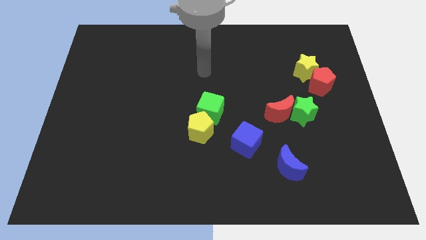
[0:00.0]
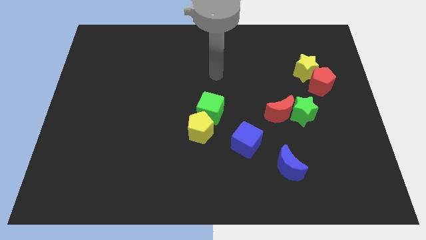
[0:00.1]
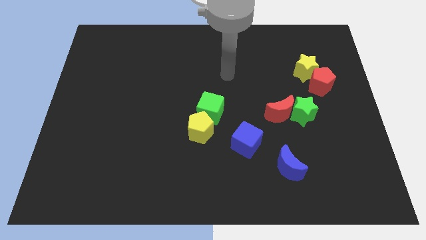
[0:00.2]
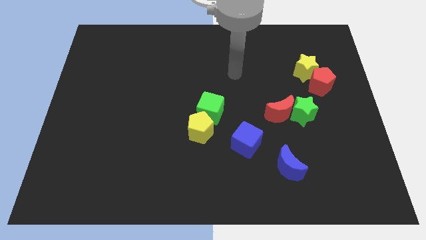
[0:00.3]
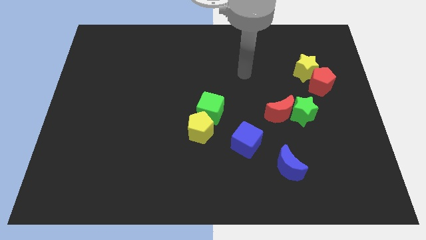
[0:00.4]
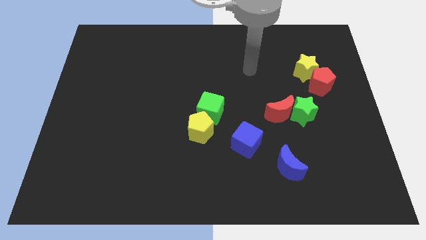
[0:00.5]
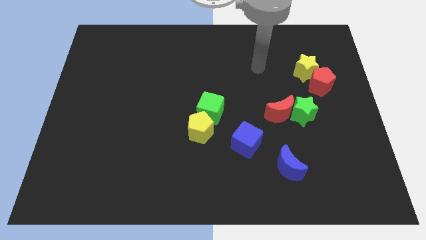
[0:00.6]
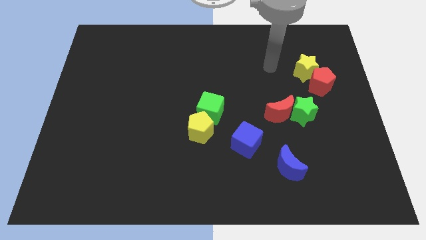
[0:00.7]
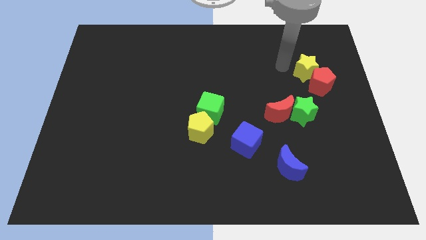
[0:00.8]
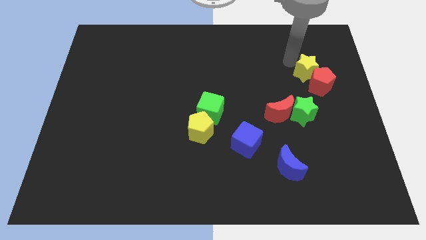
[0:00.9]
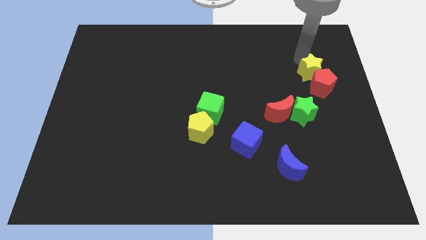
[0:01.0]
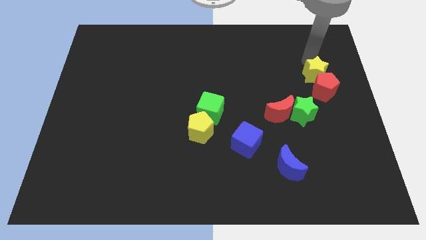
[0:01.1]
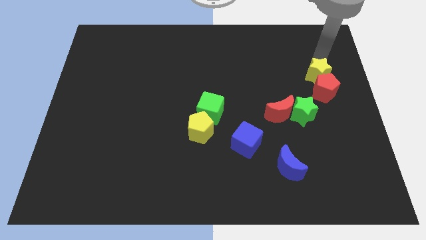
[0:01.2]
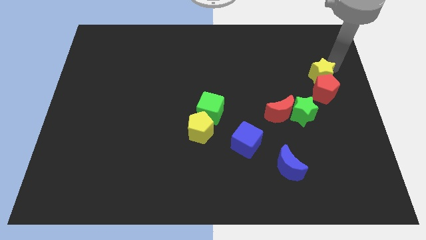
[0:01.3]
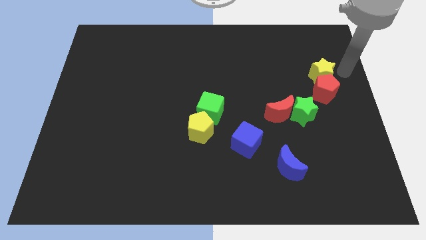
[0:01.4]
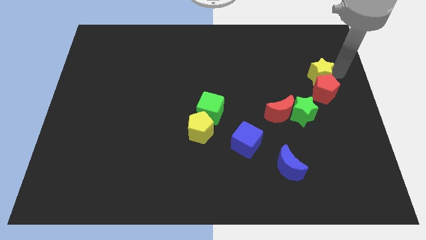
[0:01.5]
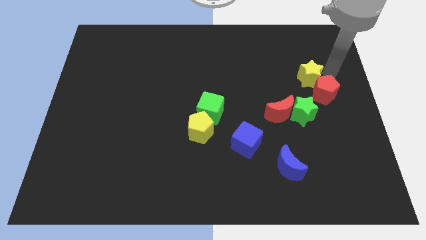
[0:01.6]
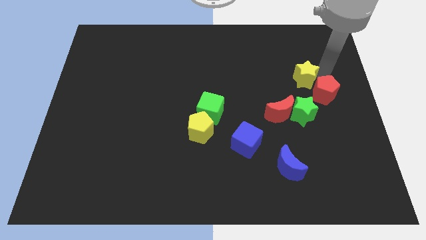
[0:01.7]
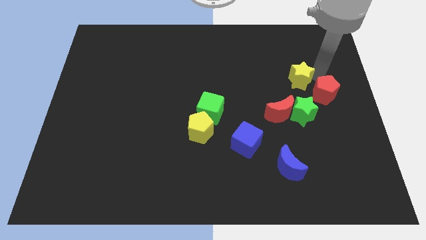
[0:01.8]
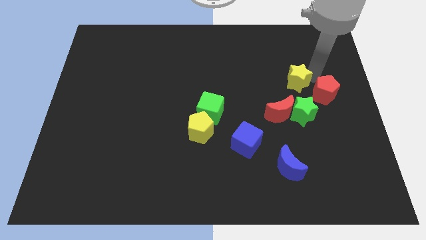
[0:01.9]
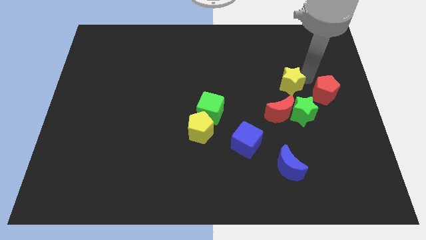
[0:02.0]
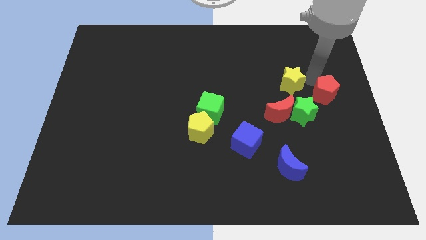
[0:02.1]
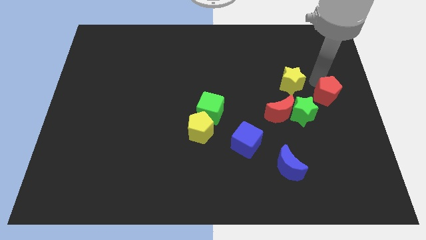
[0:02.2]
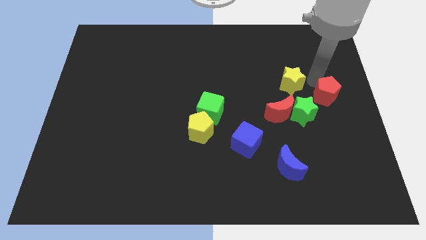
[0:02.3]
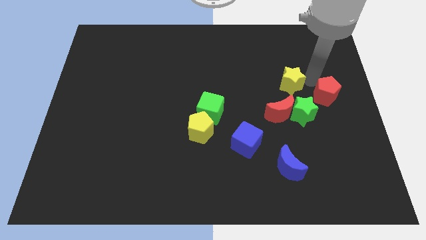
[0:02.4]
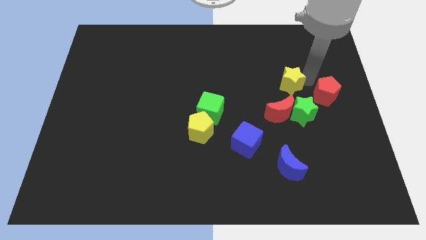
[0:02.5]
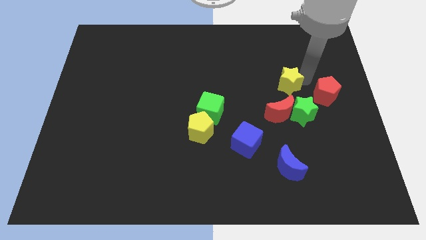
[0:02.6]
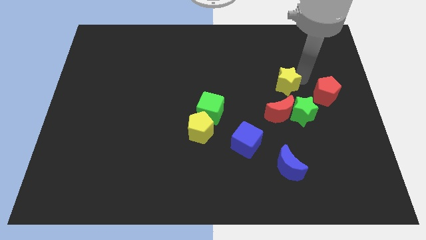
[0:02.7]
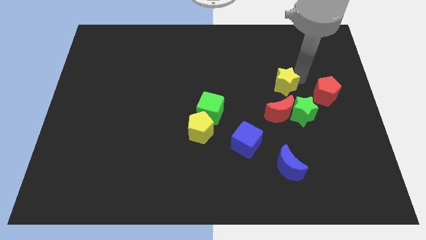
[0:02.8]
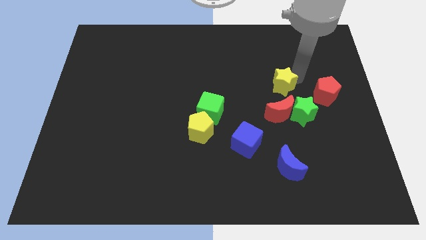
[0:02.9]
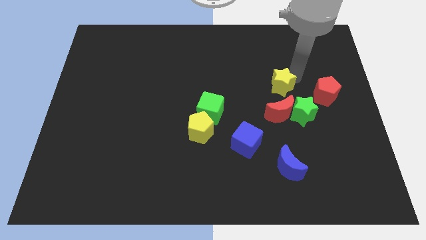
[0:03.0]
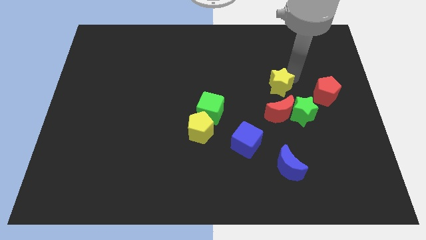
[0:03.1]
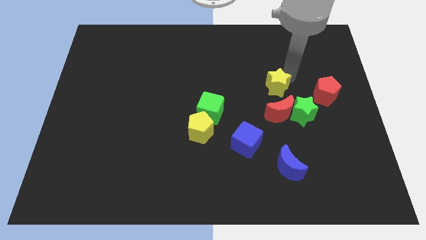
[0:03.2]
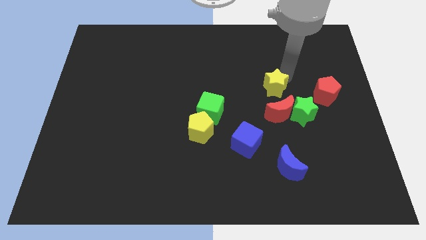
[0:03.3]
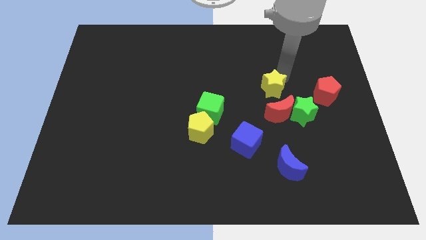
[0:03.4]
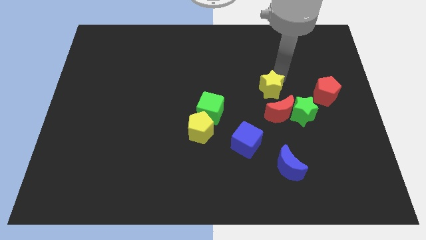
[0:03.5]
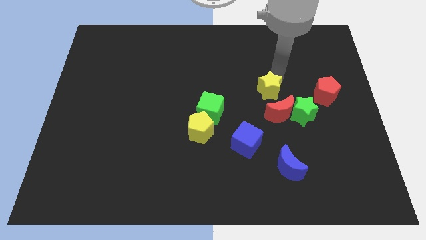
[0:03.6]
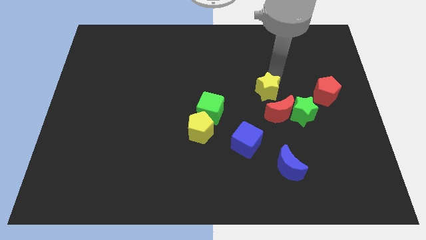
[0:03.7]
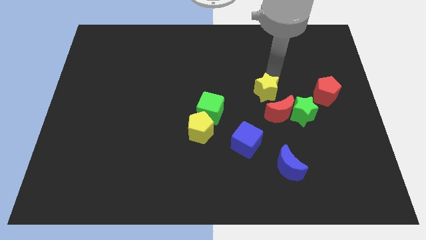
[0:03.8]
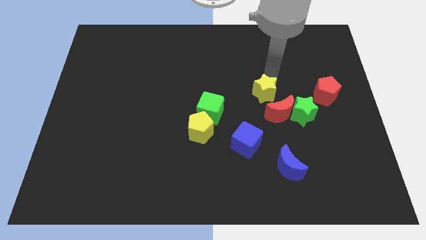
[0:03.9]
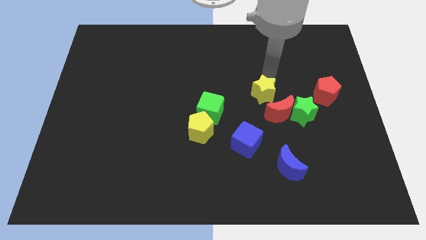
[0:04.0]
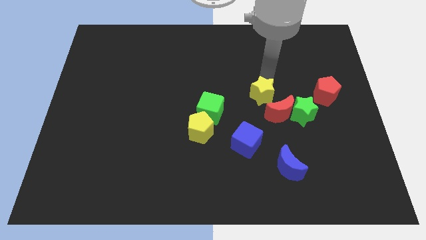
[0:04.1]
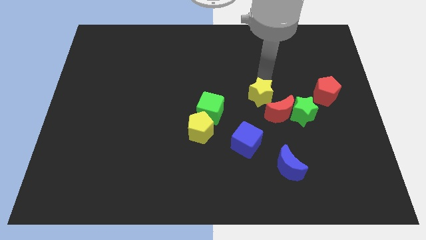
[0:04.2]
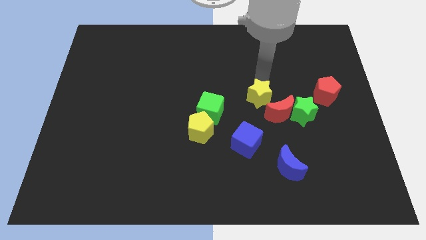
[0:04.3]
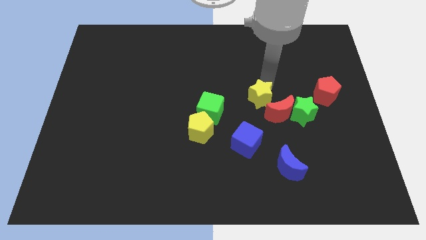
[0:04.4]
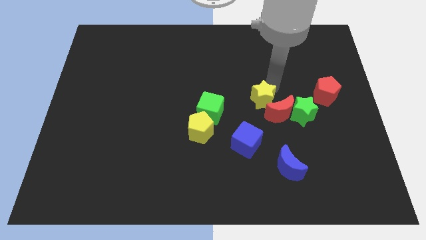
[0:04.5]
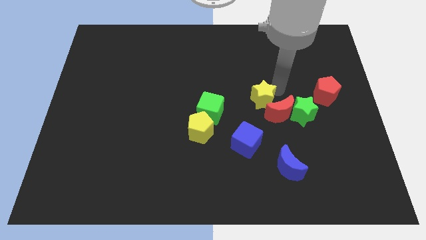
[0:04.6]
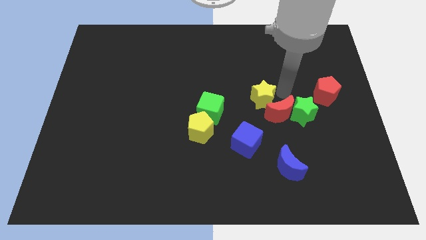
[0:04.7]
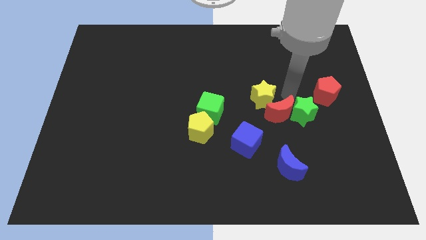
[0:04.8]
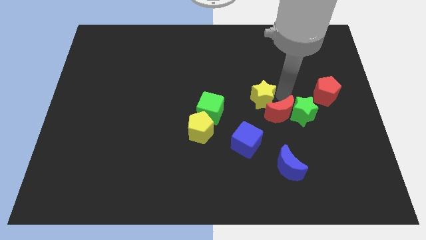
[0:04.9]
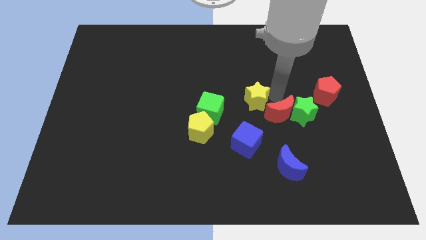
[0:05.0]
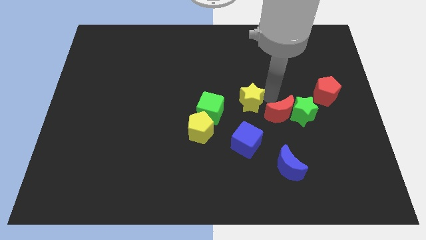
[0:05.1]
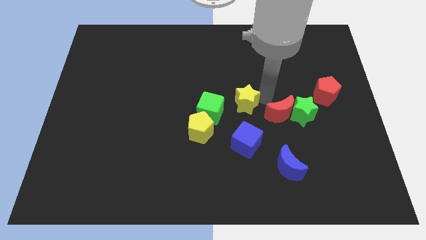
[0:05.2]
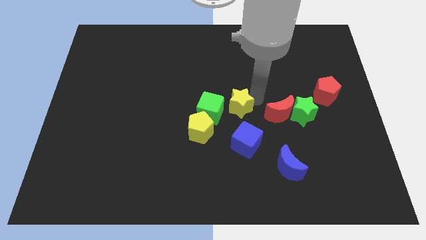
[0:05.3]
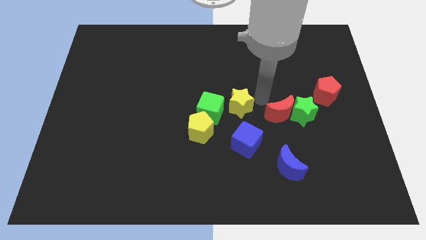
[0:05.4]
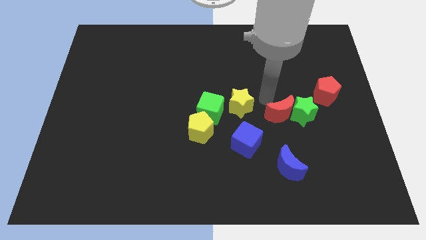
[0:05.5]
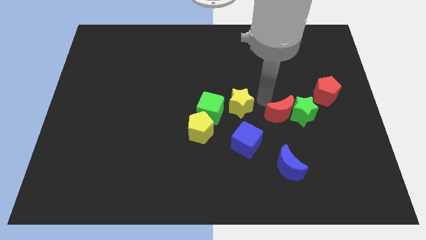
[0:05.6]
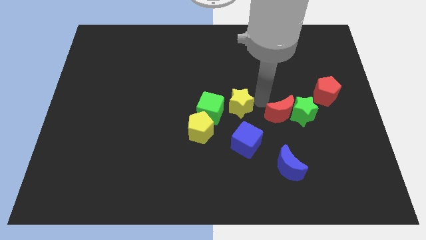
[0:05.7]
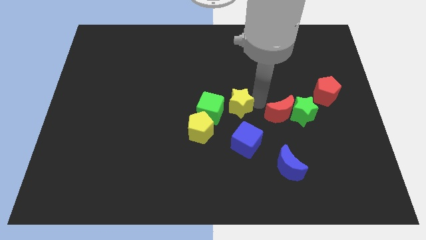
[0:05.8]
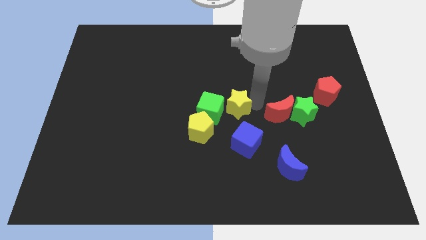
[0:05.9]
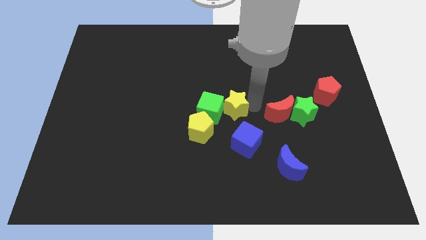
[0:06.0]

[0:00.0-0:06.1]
push the yellow star to the green cube

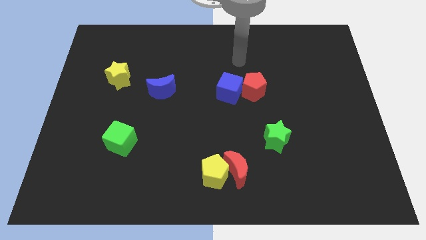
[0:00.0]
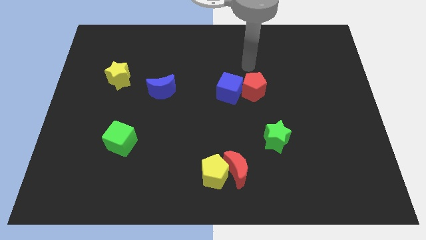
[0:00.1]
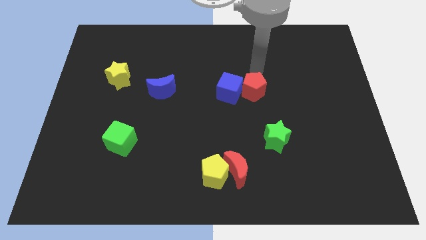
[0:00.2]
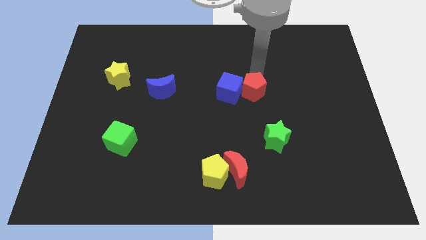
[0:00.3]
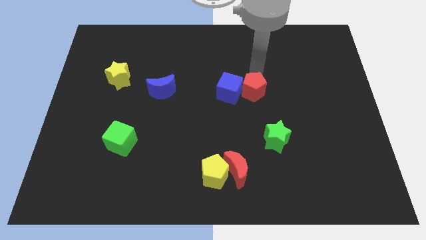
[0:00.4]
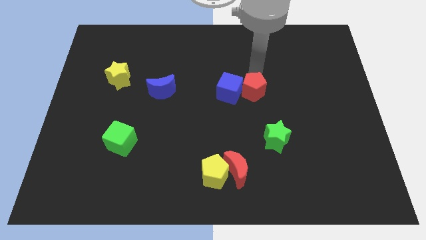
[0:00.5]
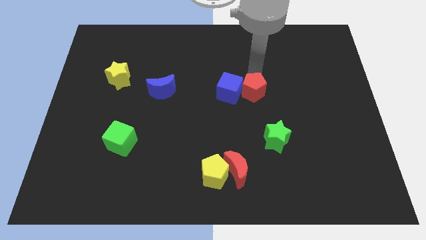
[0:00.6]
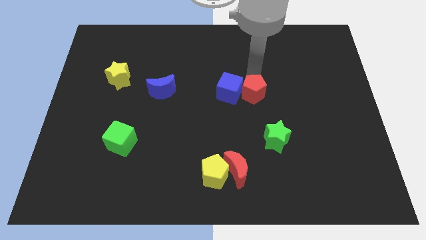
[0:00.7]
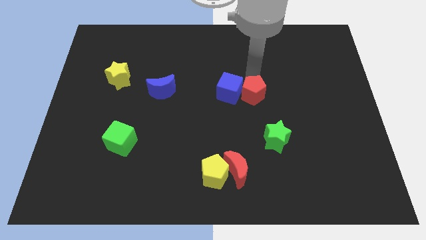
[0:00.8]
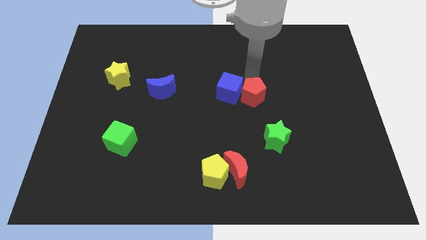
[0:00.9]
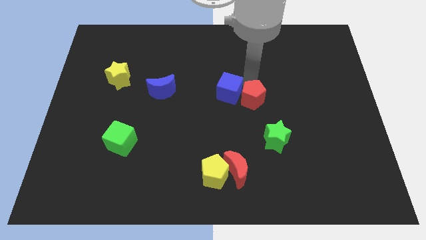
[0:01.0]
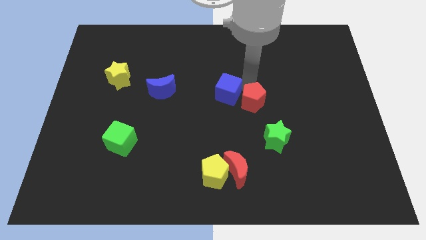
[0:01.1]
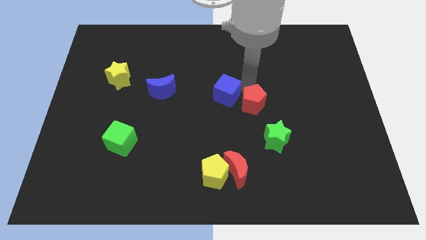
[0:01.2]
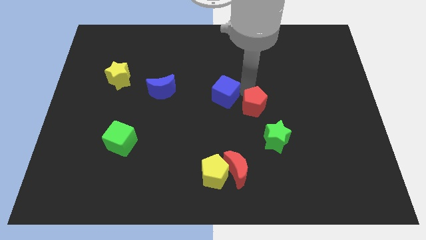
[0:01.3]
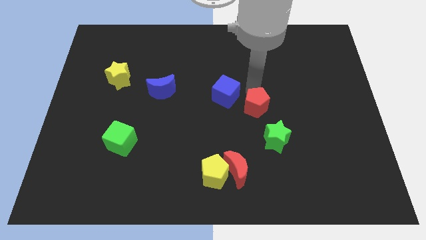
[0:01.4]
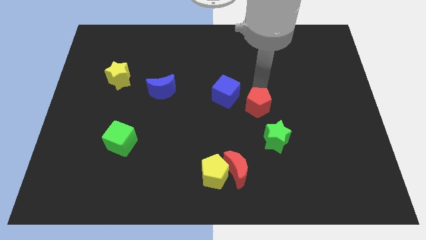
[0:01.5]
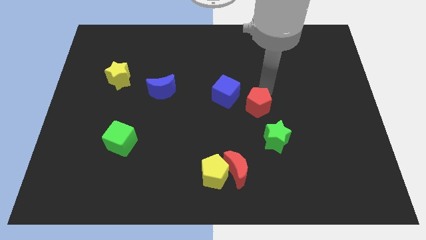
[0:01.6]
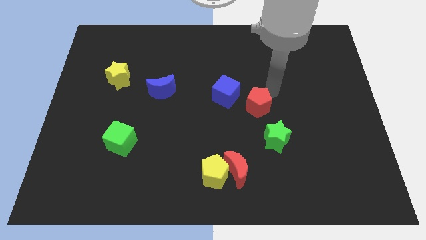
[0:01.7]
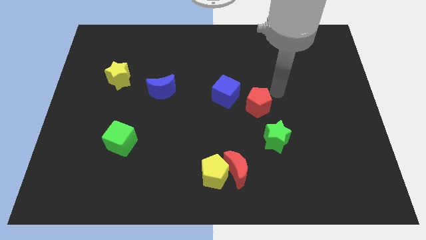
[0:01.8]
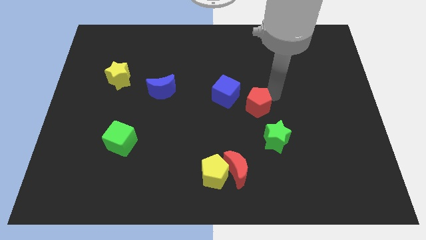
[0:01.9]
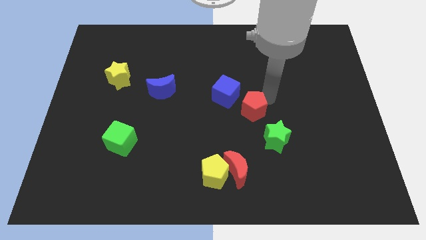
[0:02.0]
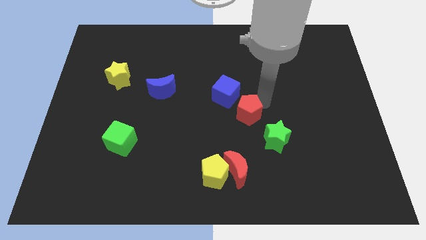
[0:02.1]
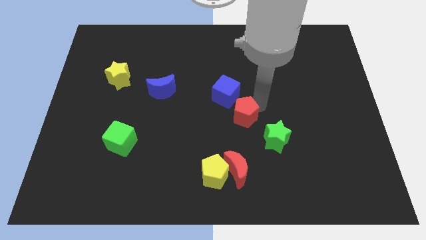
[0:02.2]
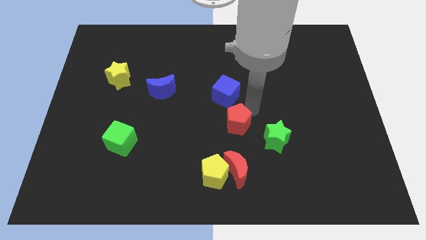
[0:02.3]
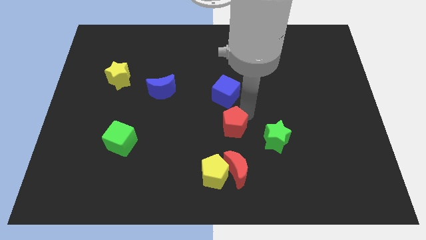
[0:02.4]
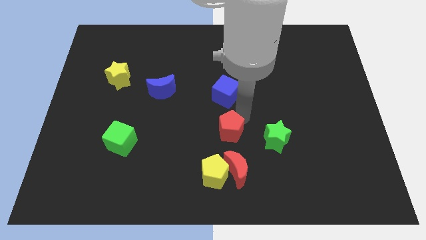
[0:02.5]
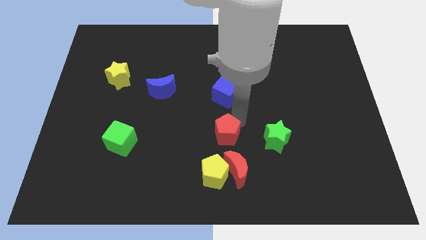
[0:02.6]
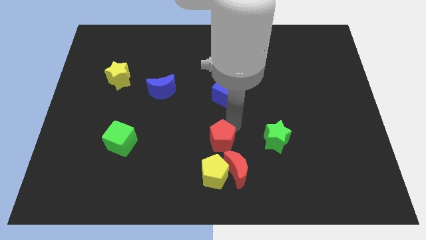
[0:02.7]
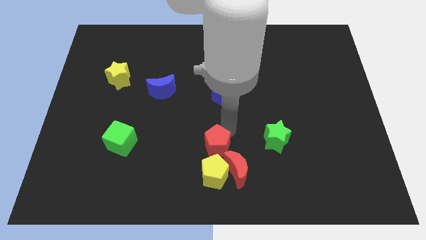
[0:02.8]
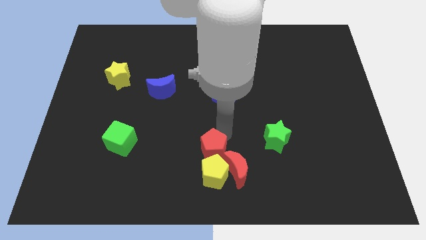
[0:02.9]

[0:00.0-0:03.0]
put the red pentagon towards the yellow pentagon
